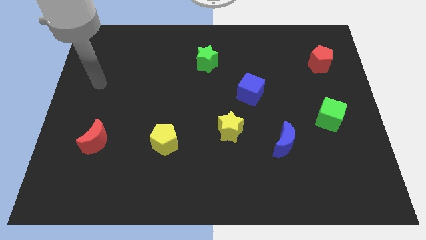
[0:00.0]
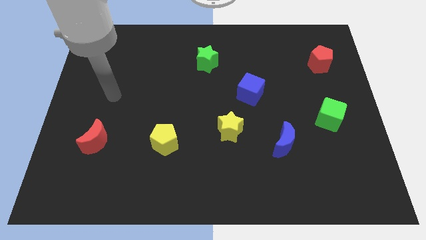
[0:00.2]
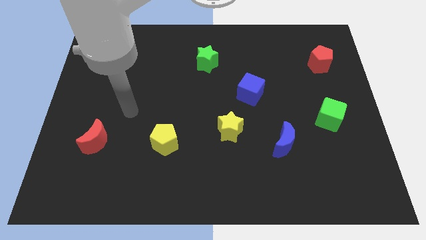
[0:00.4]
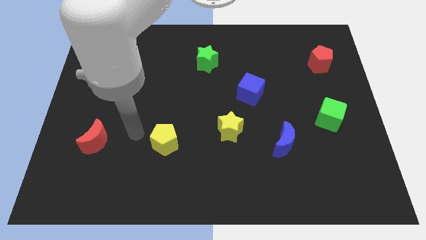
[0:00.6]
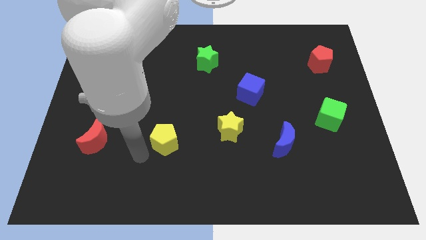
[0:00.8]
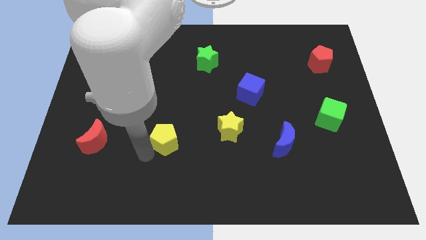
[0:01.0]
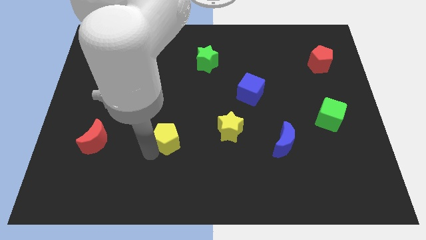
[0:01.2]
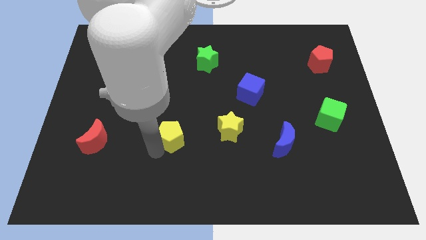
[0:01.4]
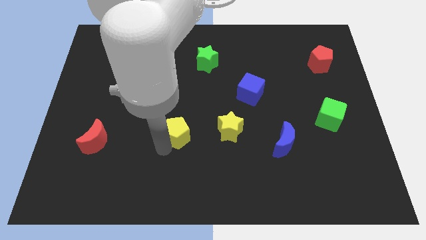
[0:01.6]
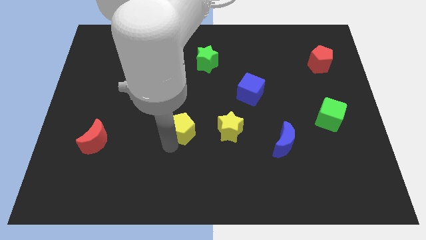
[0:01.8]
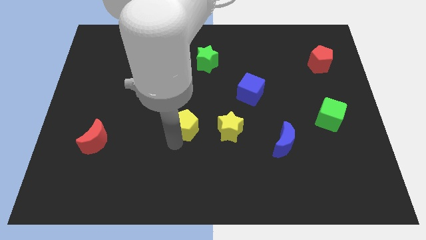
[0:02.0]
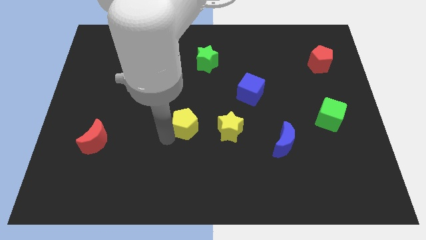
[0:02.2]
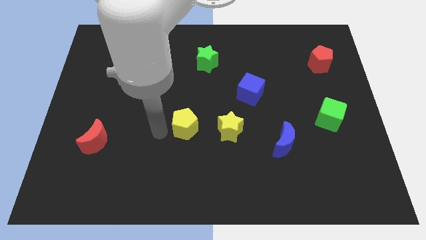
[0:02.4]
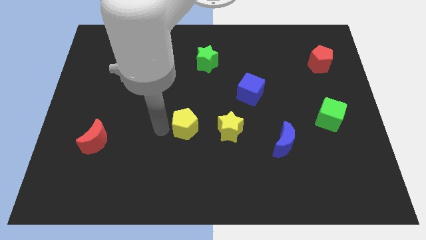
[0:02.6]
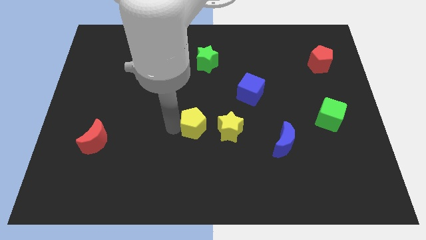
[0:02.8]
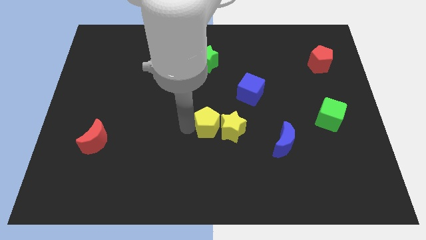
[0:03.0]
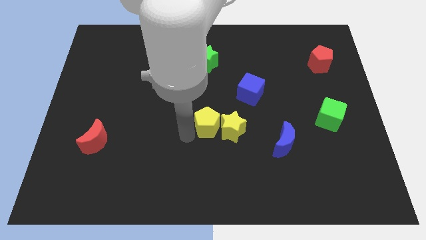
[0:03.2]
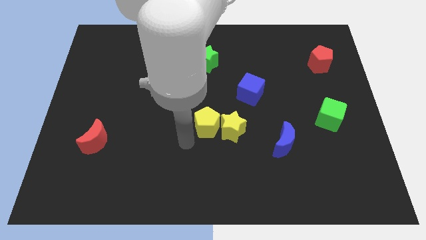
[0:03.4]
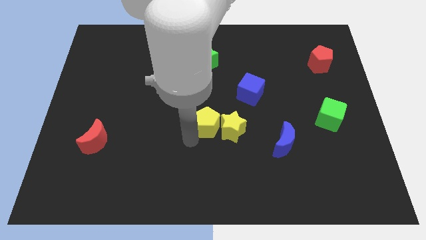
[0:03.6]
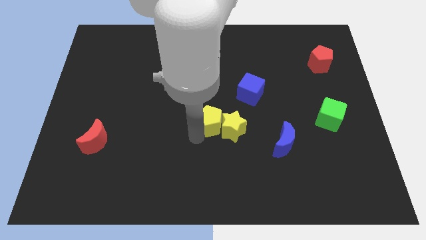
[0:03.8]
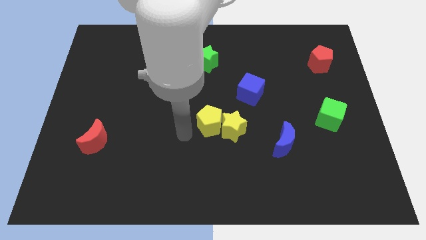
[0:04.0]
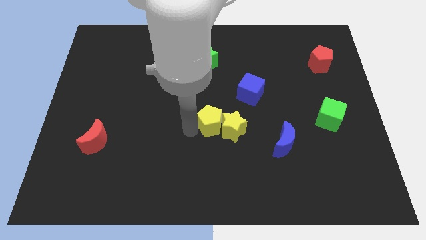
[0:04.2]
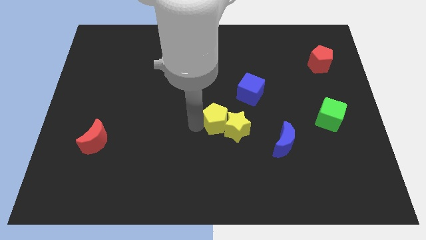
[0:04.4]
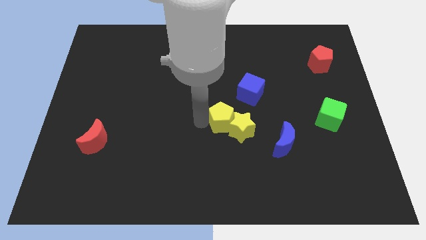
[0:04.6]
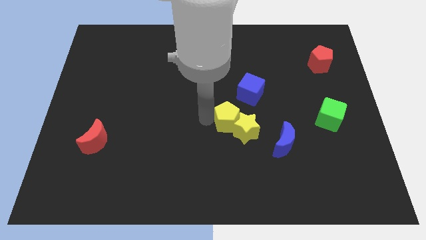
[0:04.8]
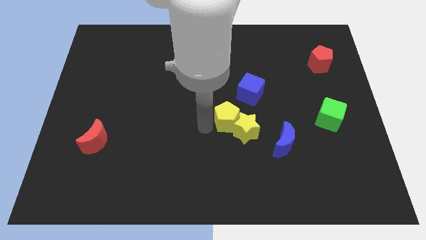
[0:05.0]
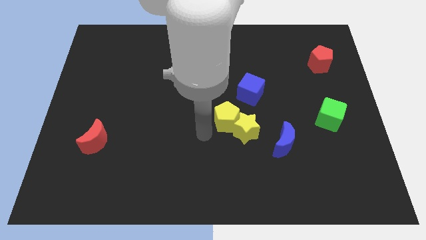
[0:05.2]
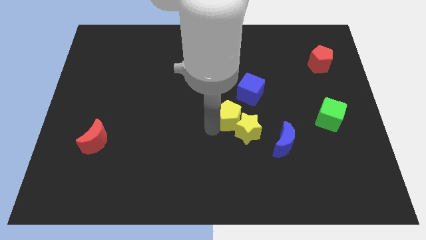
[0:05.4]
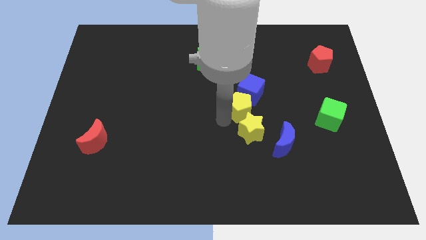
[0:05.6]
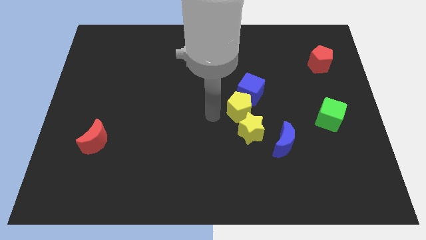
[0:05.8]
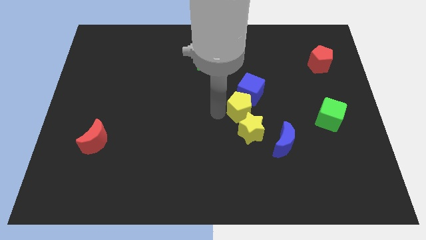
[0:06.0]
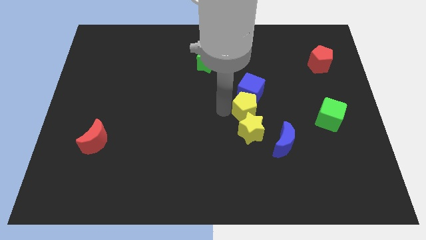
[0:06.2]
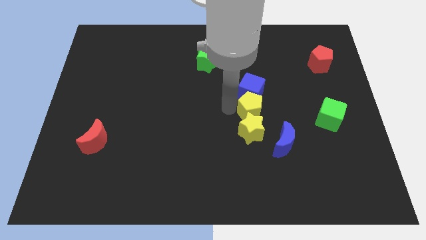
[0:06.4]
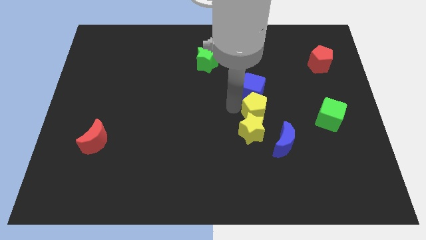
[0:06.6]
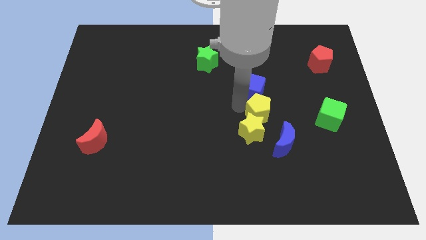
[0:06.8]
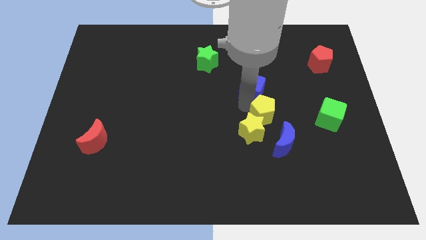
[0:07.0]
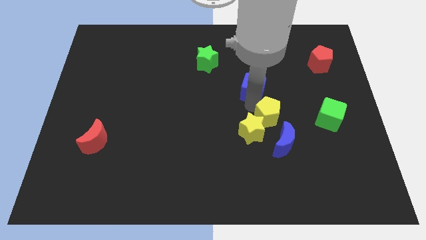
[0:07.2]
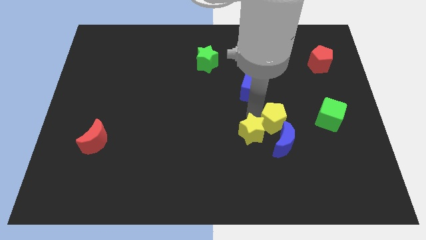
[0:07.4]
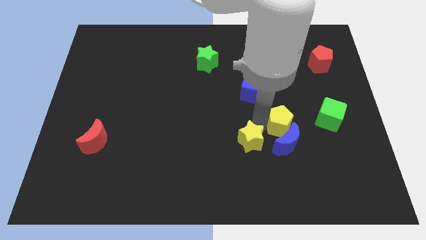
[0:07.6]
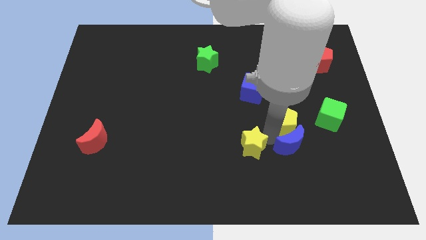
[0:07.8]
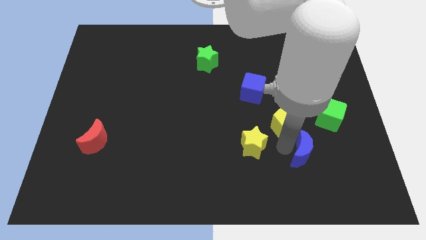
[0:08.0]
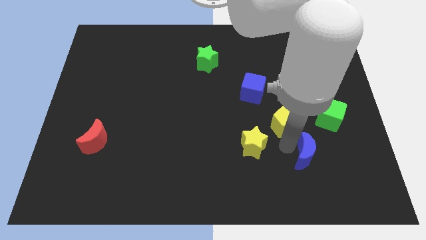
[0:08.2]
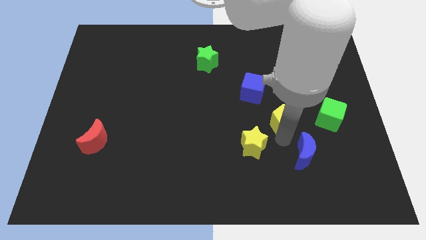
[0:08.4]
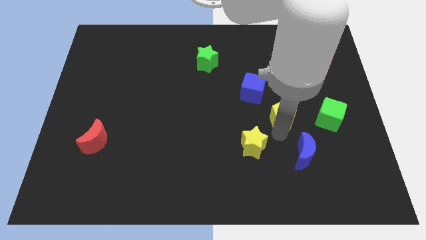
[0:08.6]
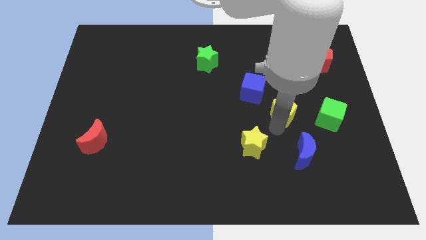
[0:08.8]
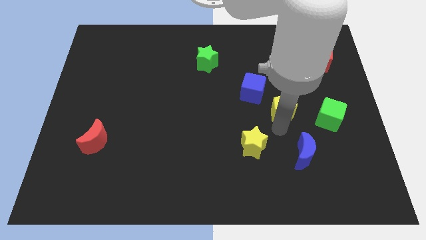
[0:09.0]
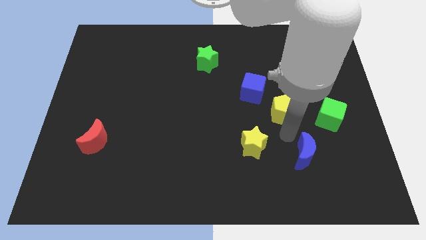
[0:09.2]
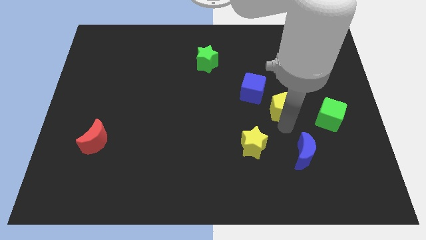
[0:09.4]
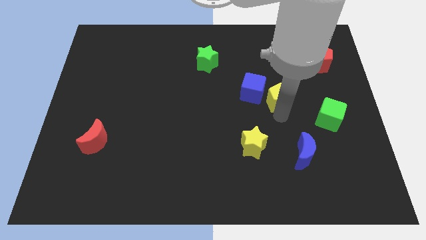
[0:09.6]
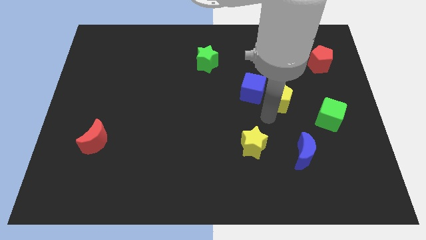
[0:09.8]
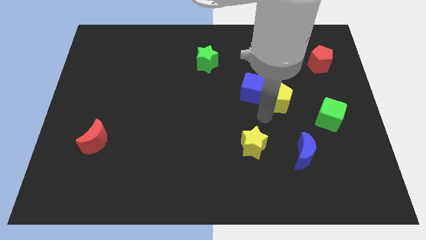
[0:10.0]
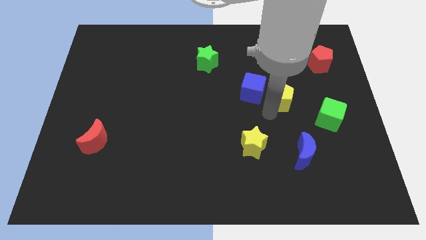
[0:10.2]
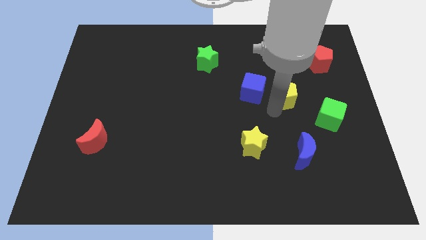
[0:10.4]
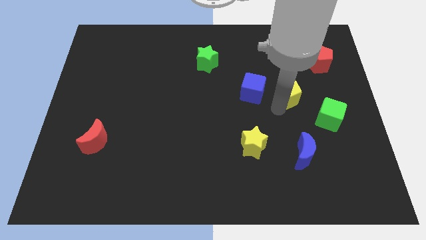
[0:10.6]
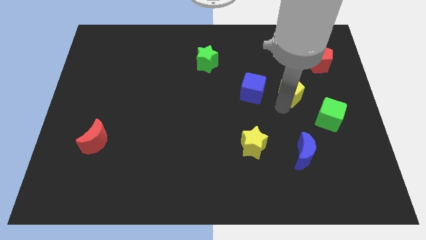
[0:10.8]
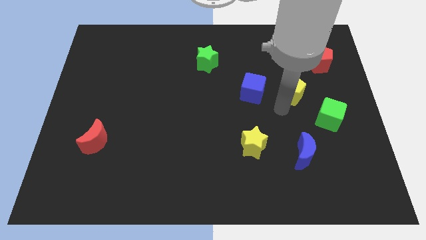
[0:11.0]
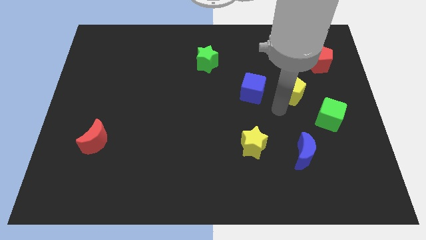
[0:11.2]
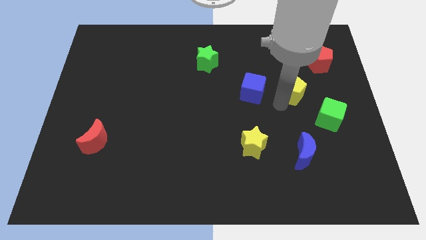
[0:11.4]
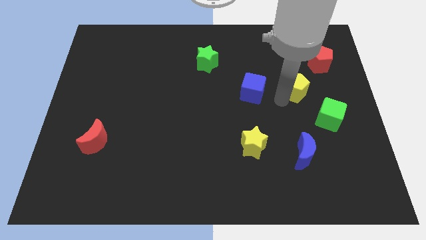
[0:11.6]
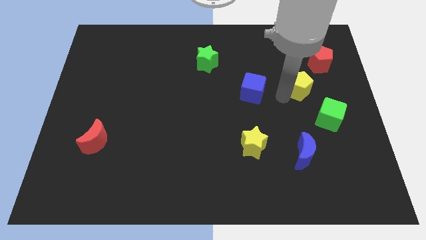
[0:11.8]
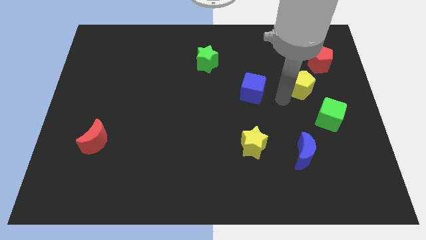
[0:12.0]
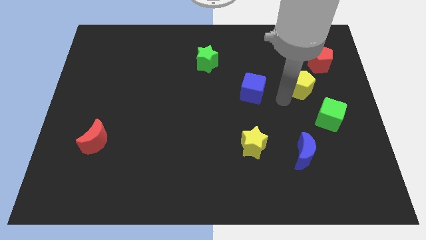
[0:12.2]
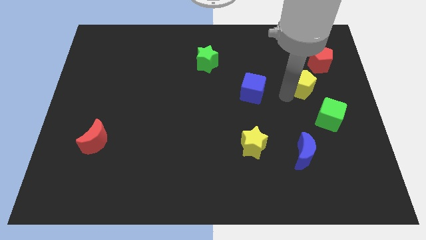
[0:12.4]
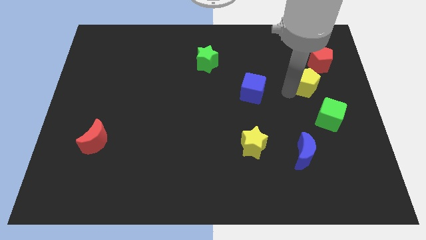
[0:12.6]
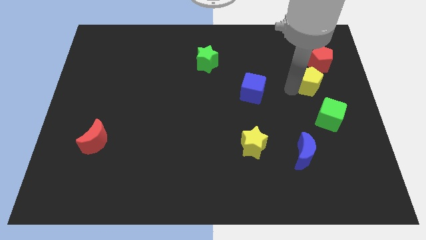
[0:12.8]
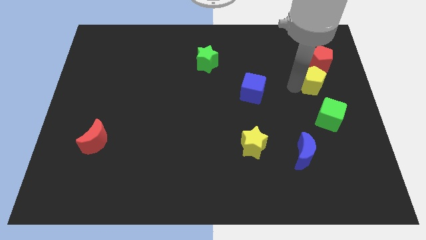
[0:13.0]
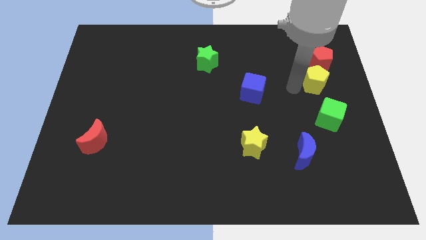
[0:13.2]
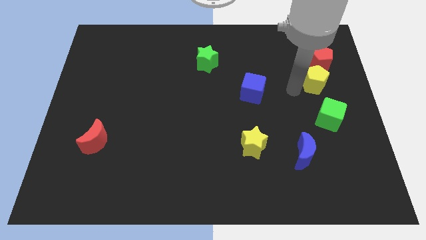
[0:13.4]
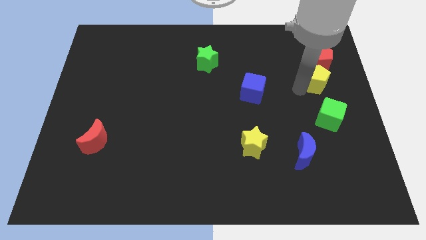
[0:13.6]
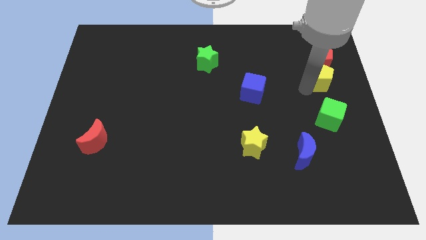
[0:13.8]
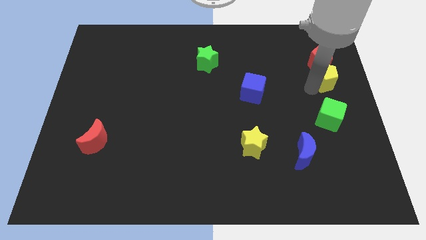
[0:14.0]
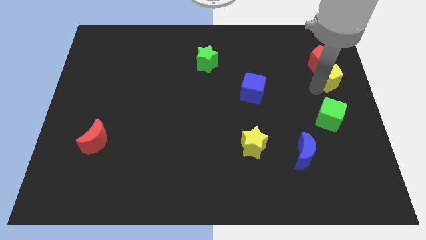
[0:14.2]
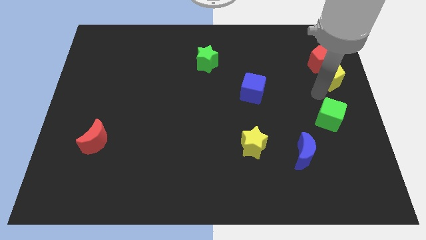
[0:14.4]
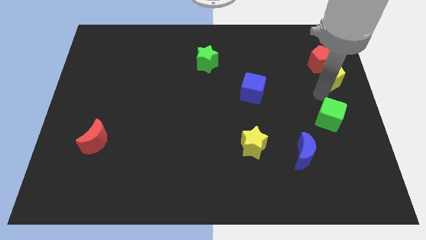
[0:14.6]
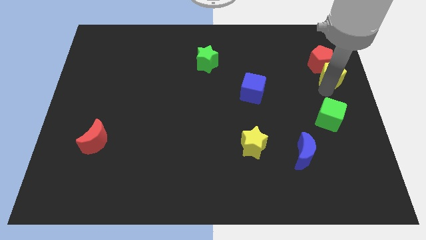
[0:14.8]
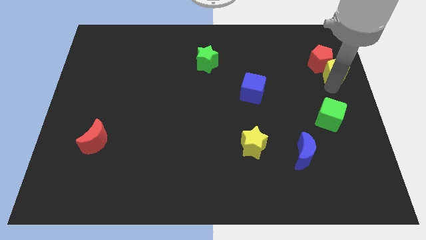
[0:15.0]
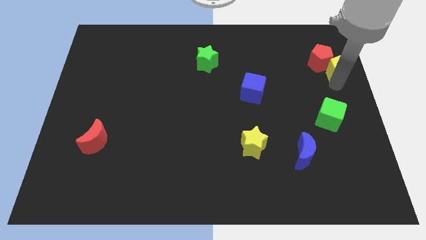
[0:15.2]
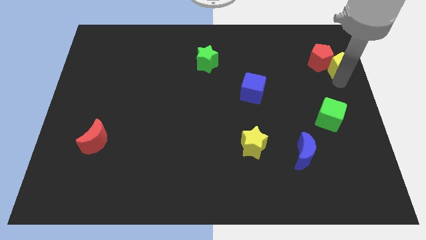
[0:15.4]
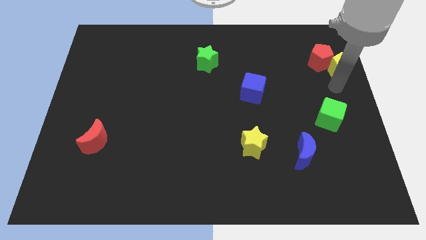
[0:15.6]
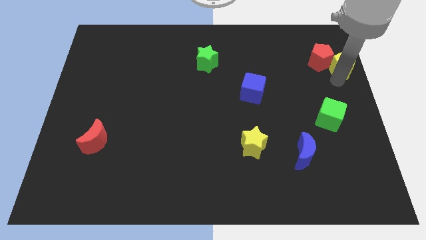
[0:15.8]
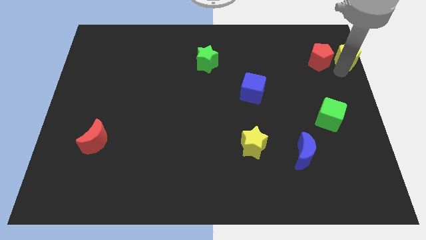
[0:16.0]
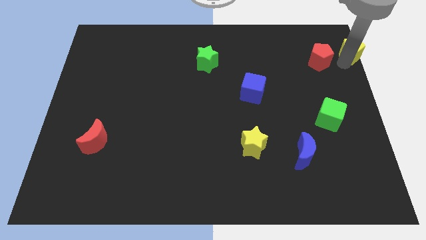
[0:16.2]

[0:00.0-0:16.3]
slide the yellow pentagon to the top right
